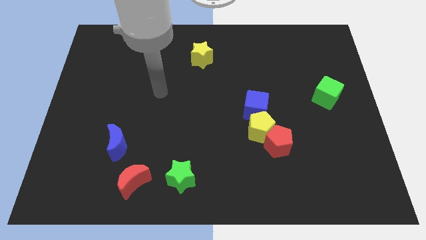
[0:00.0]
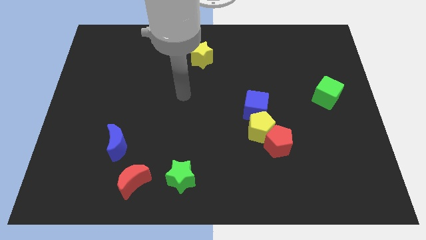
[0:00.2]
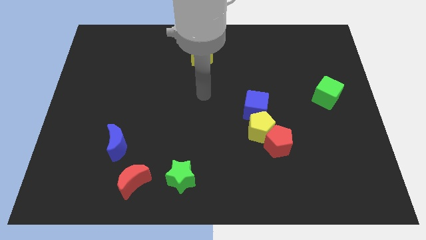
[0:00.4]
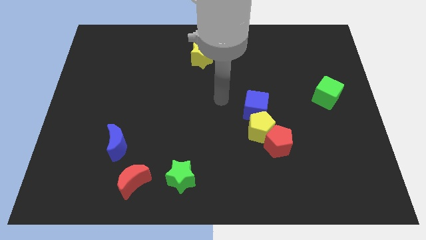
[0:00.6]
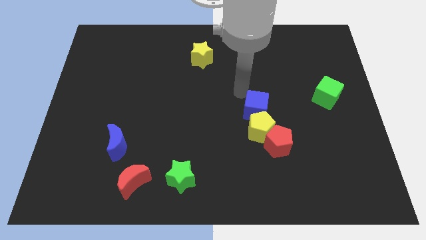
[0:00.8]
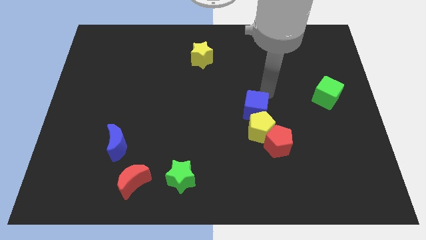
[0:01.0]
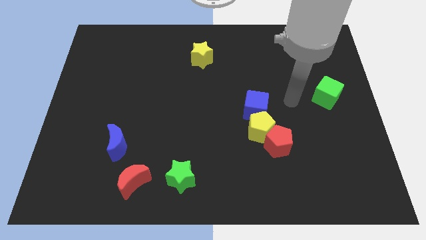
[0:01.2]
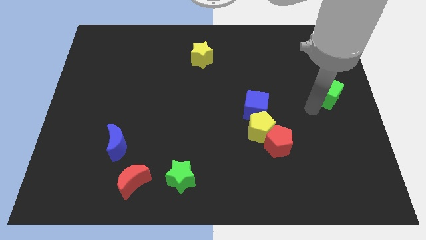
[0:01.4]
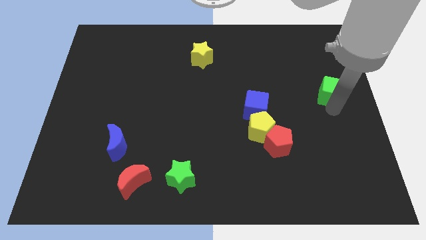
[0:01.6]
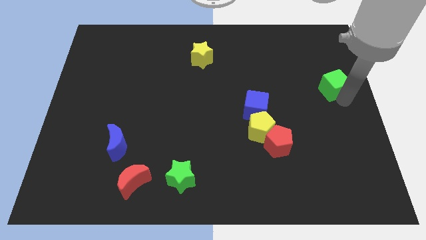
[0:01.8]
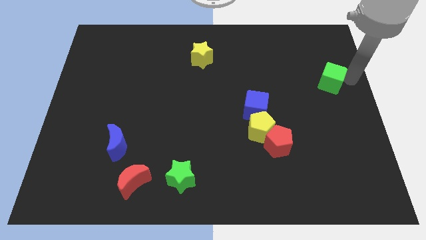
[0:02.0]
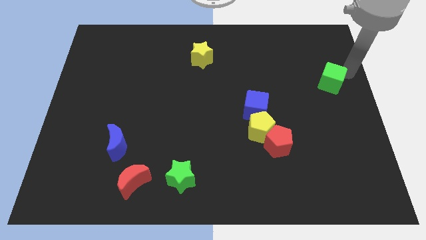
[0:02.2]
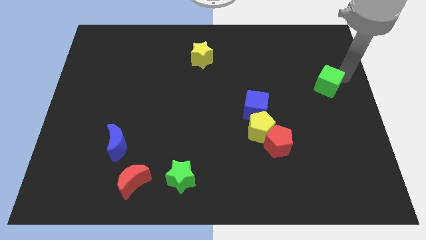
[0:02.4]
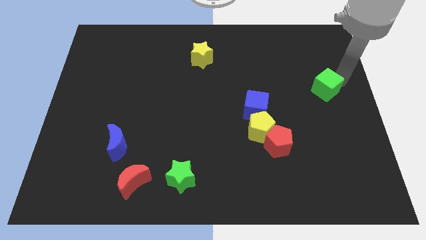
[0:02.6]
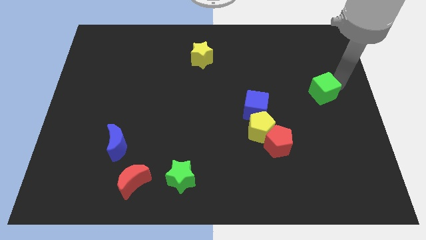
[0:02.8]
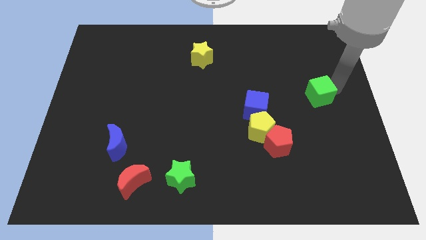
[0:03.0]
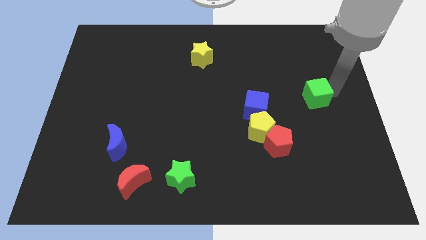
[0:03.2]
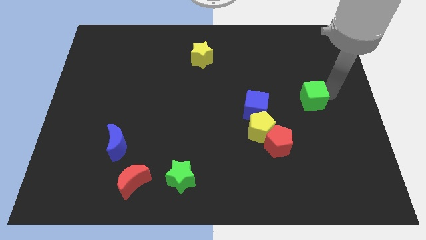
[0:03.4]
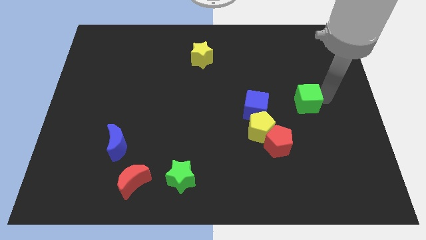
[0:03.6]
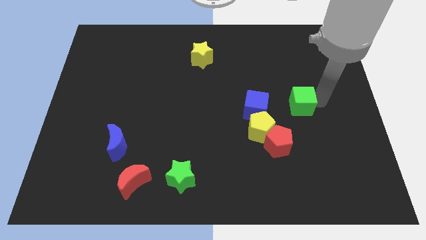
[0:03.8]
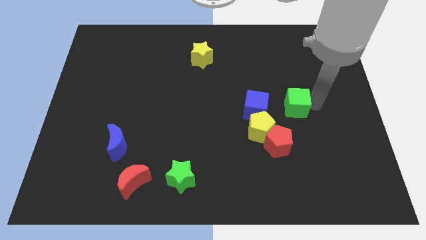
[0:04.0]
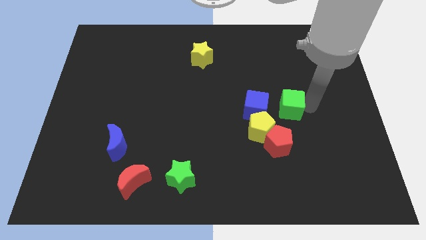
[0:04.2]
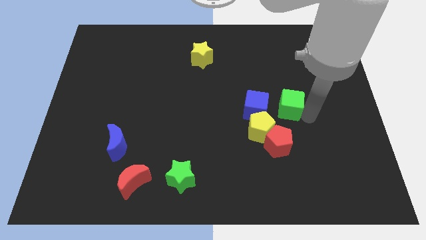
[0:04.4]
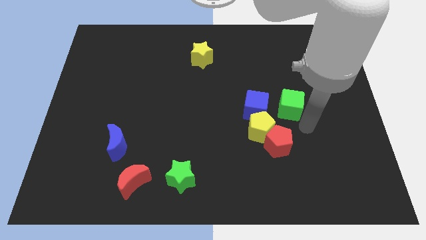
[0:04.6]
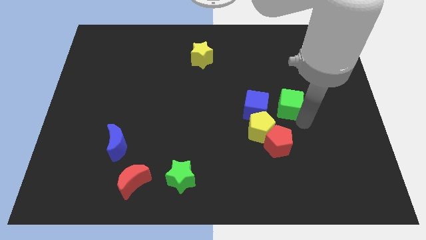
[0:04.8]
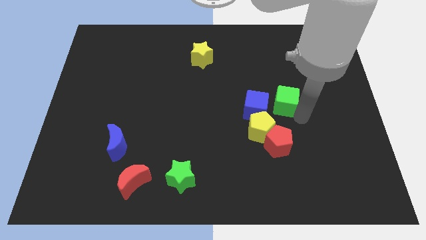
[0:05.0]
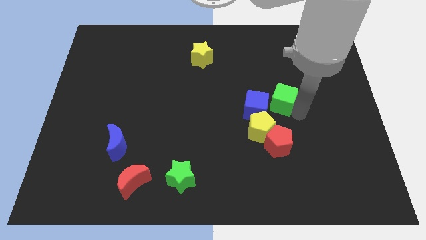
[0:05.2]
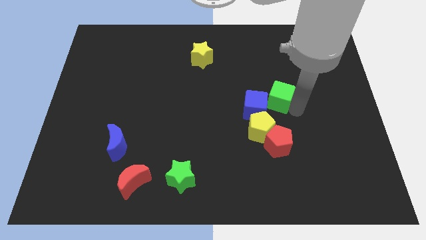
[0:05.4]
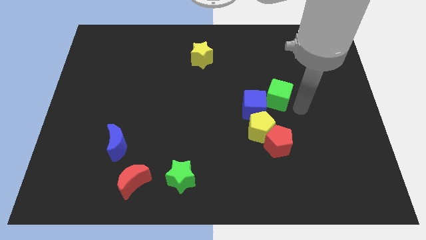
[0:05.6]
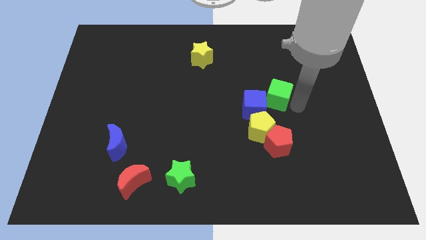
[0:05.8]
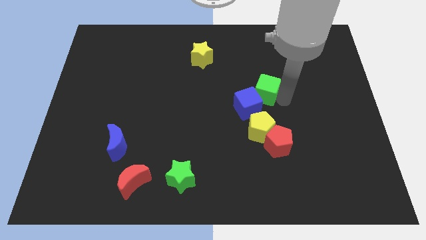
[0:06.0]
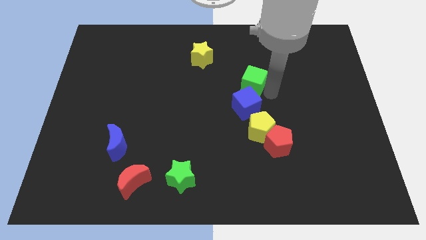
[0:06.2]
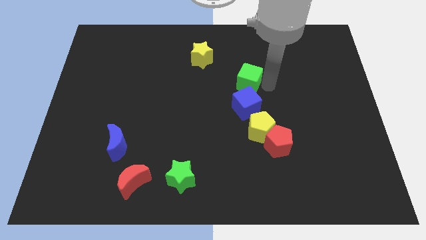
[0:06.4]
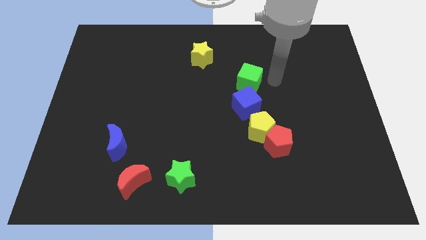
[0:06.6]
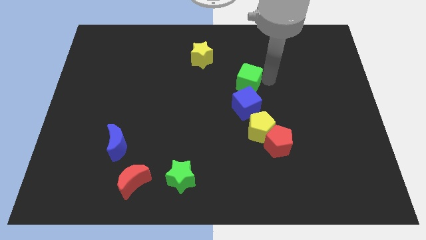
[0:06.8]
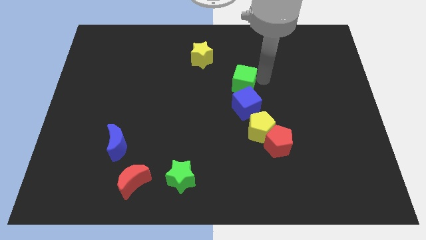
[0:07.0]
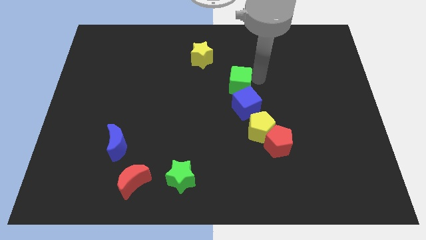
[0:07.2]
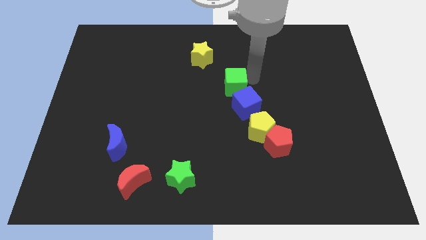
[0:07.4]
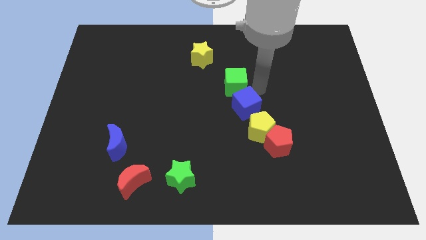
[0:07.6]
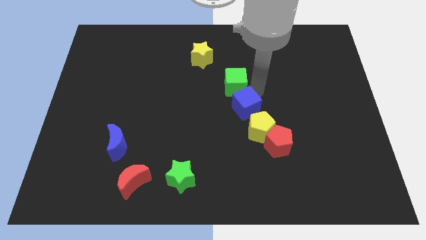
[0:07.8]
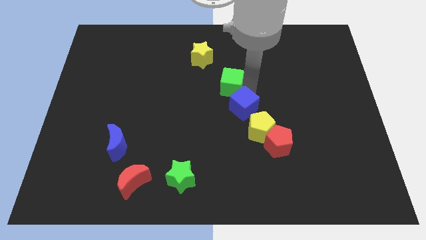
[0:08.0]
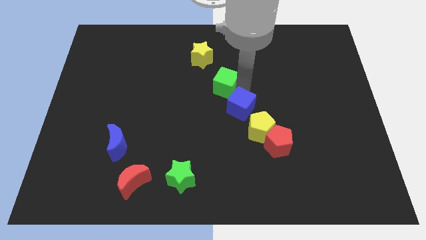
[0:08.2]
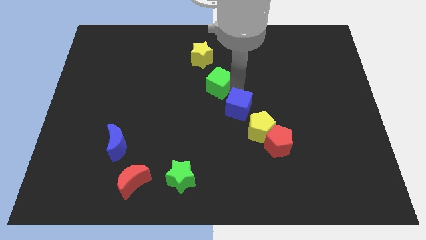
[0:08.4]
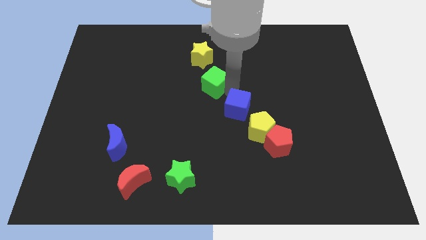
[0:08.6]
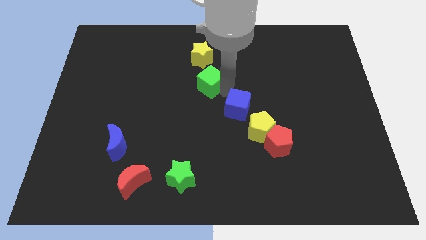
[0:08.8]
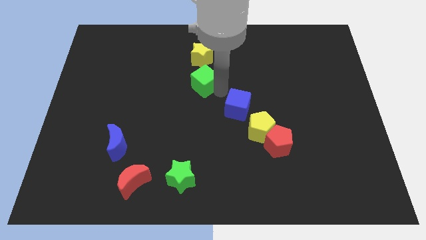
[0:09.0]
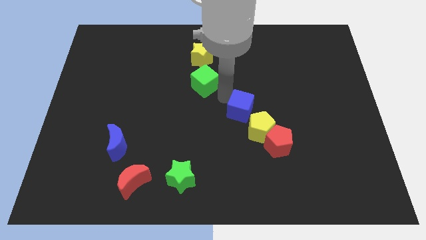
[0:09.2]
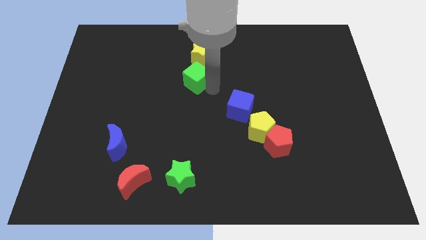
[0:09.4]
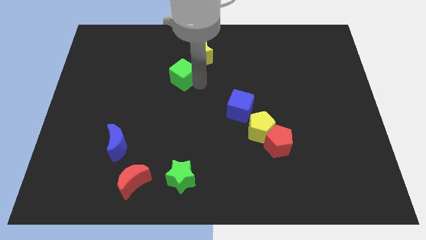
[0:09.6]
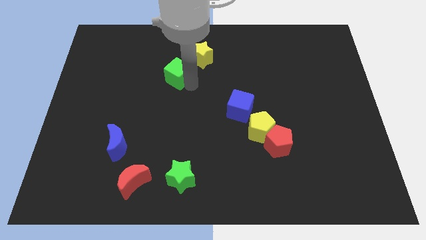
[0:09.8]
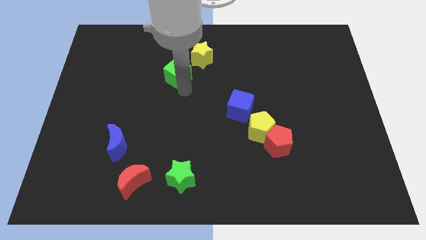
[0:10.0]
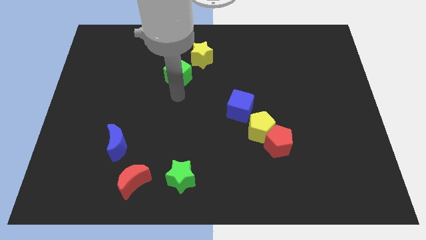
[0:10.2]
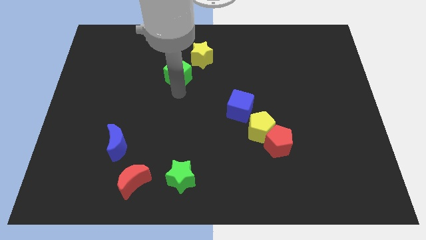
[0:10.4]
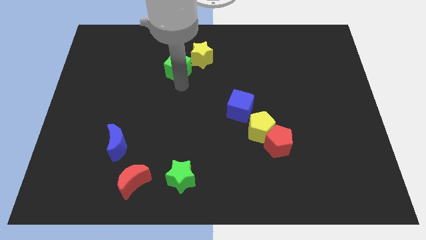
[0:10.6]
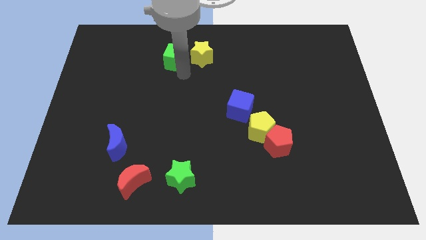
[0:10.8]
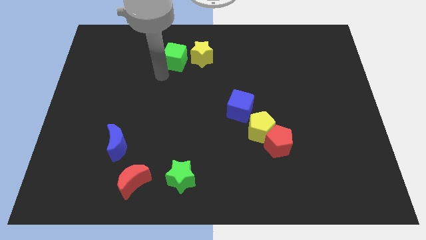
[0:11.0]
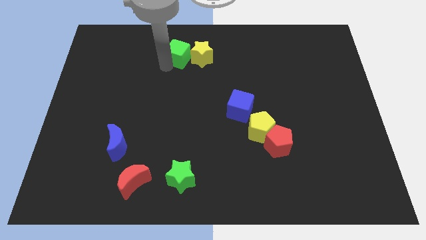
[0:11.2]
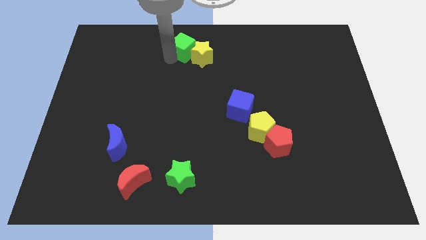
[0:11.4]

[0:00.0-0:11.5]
put the green cube to the top side
